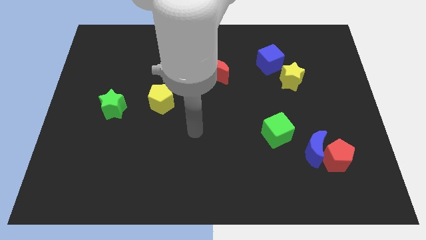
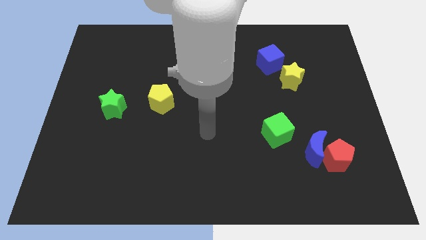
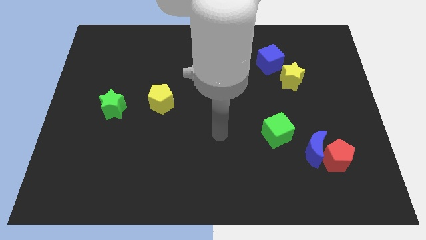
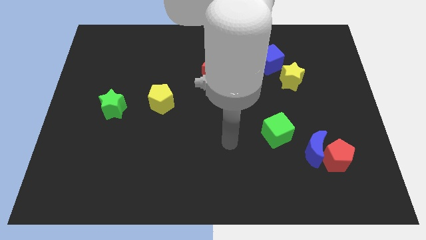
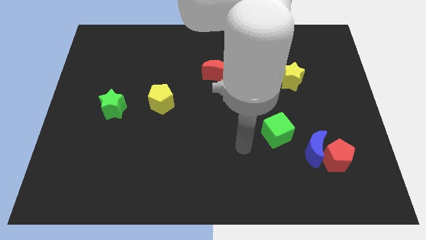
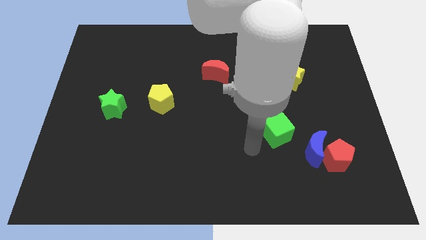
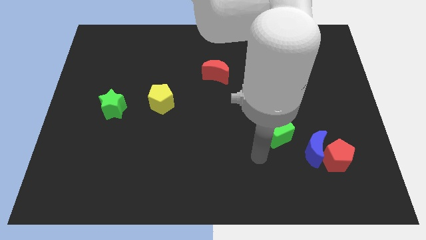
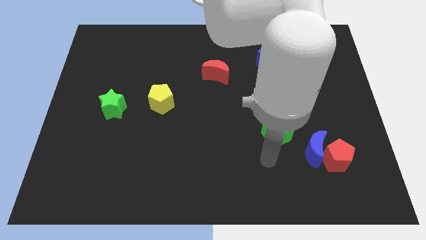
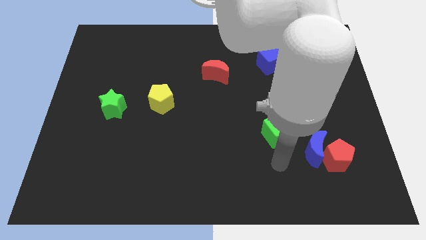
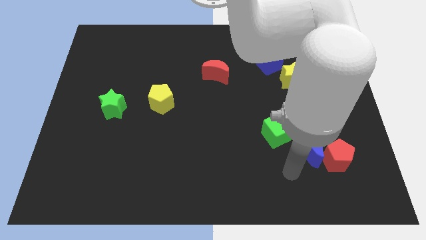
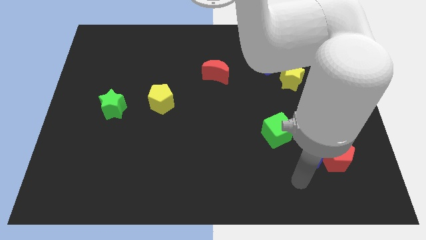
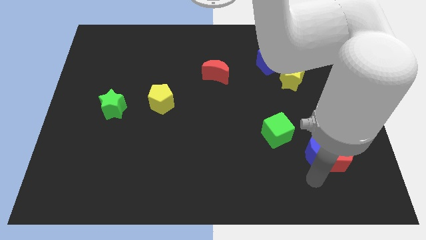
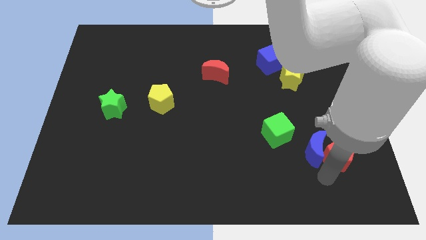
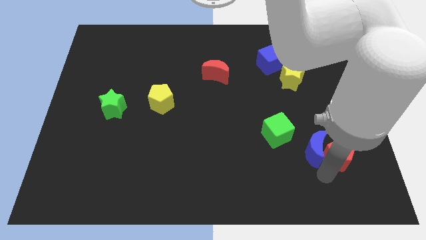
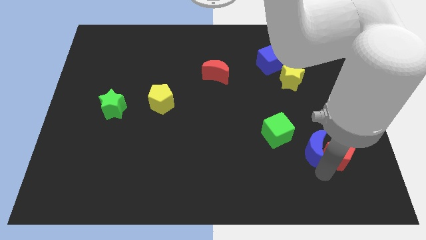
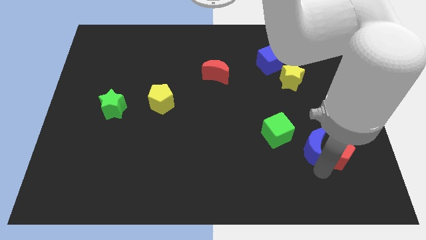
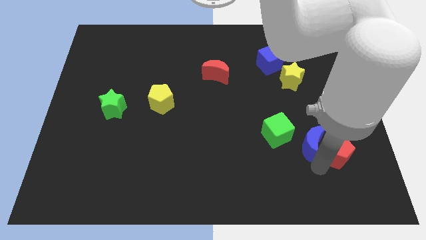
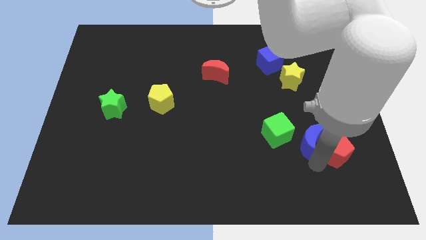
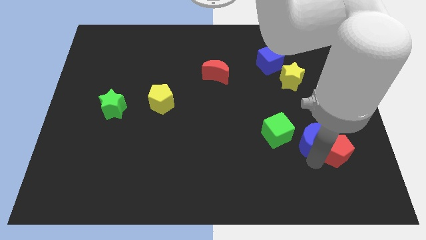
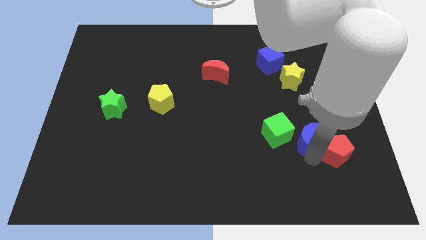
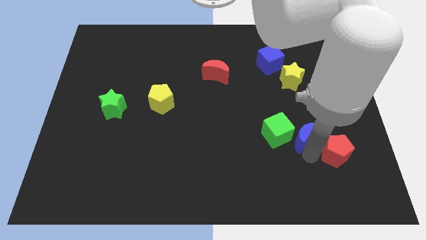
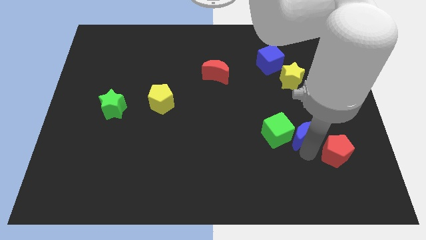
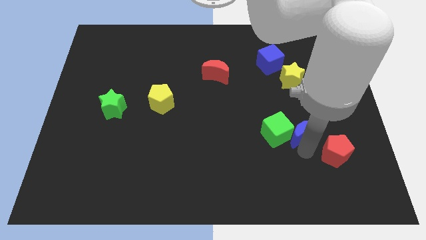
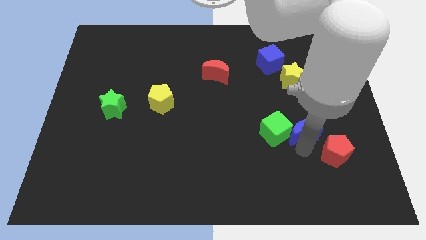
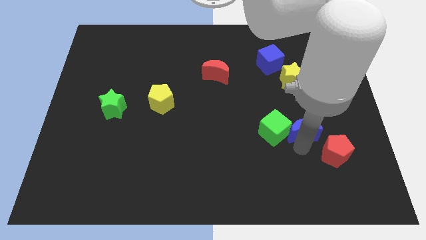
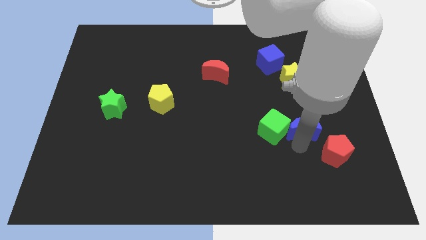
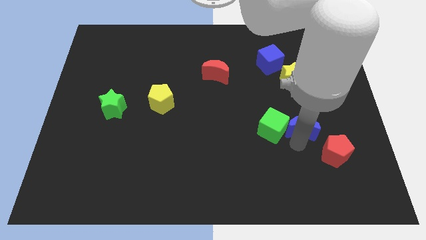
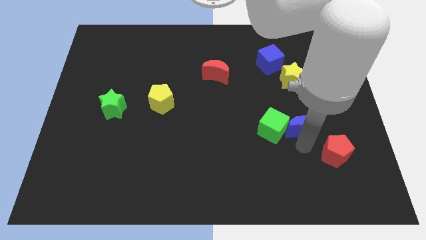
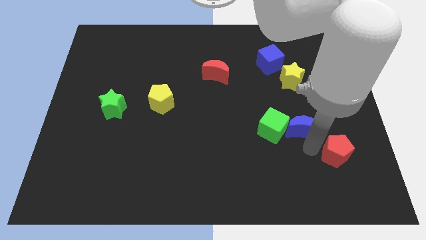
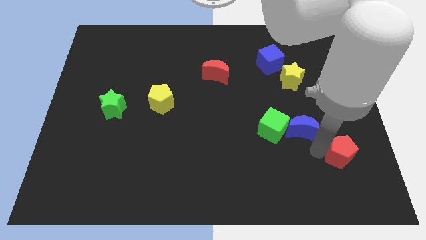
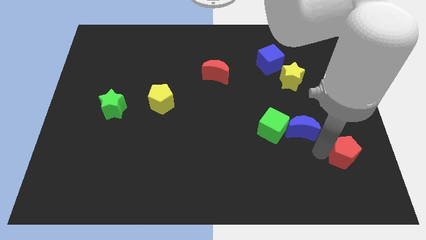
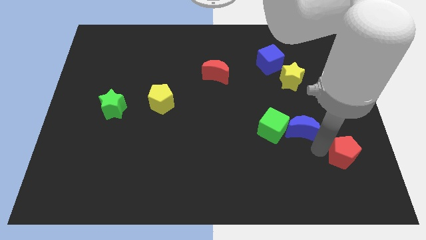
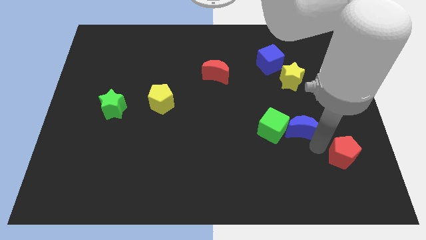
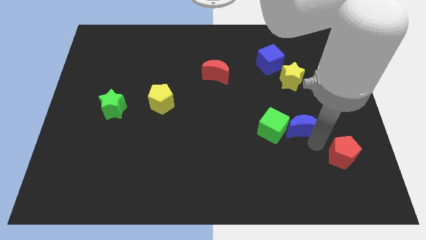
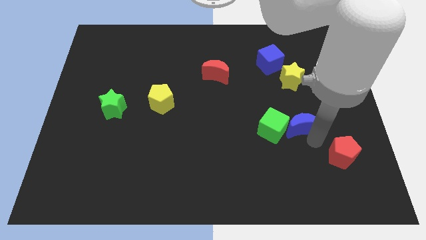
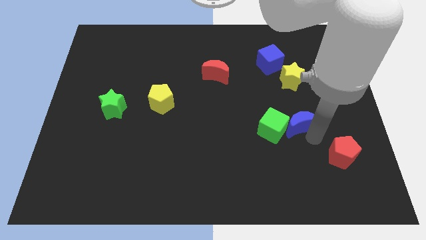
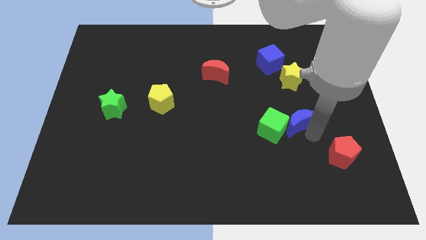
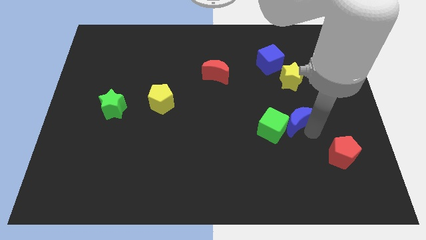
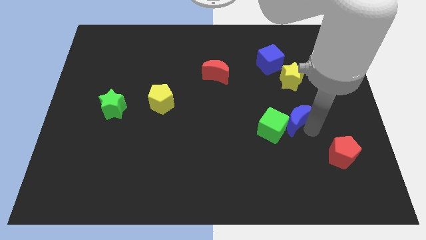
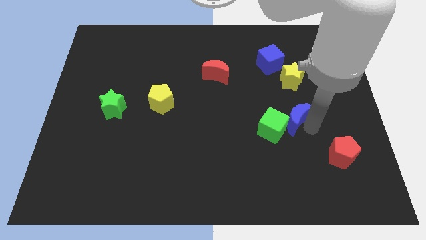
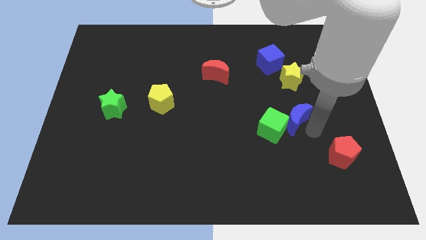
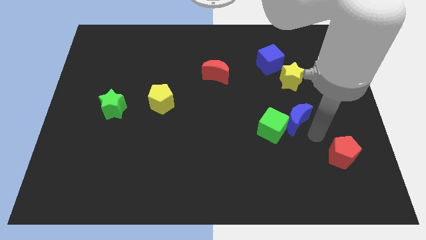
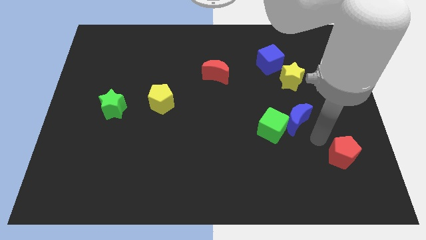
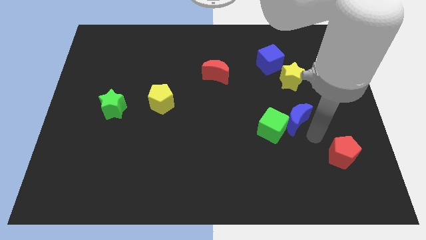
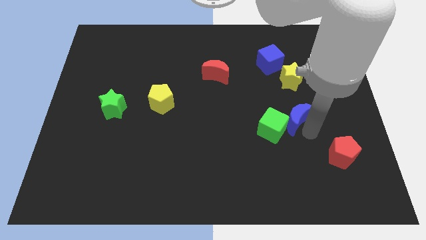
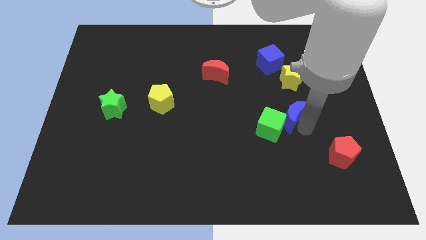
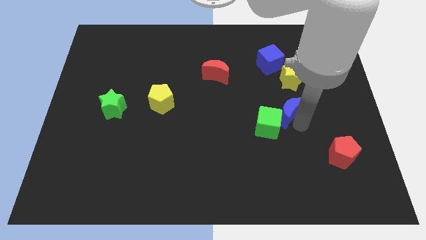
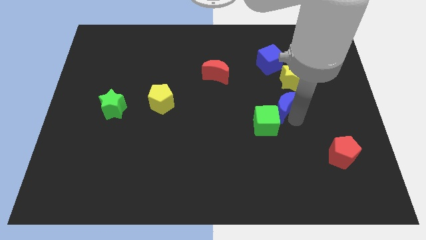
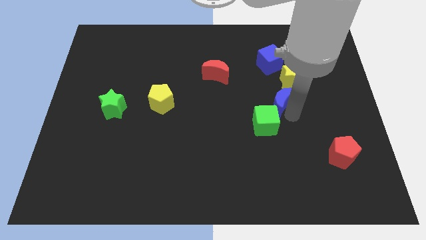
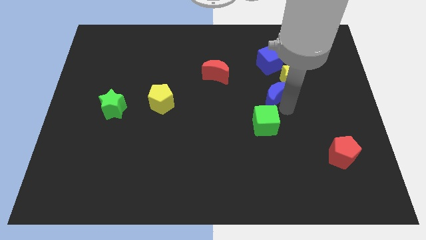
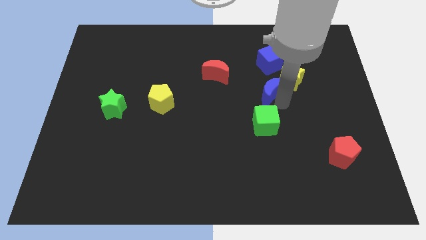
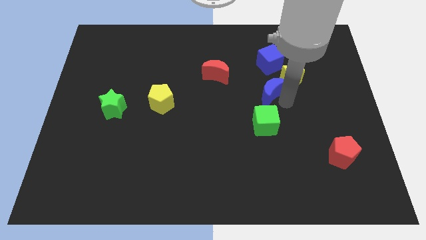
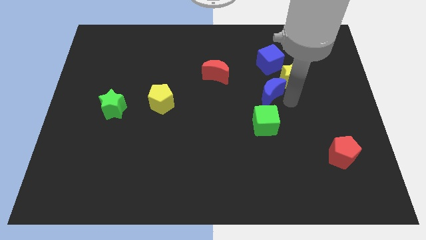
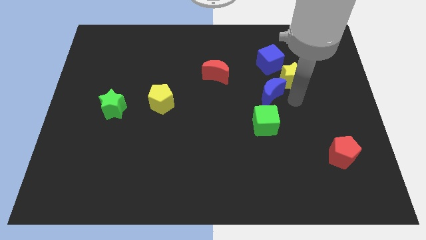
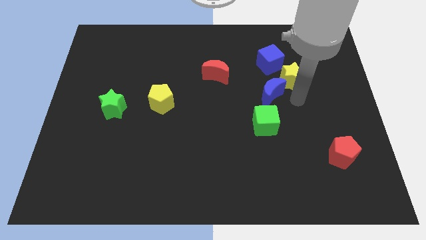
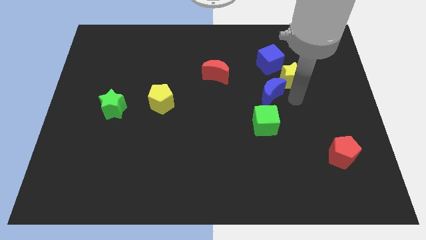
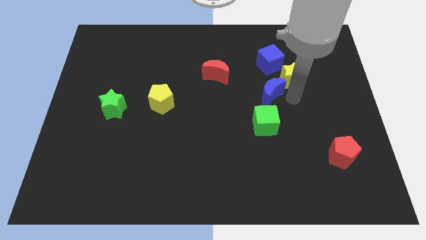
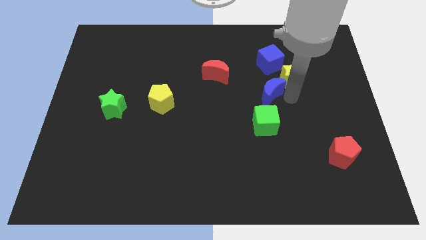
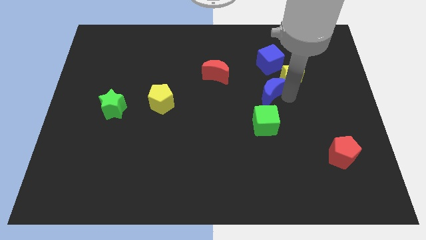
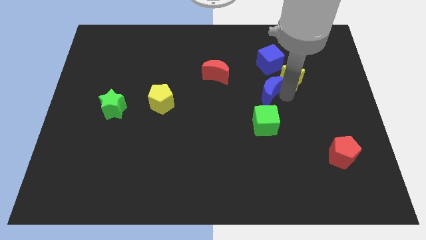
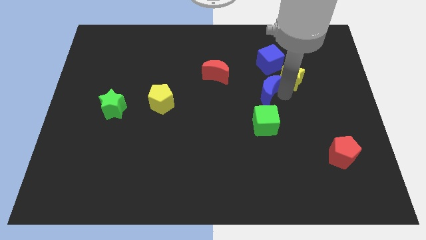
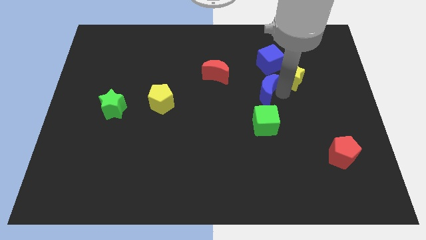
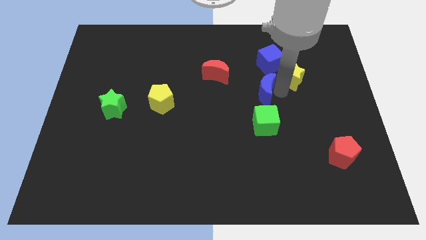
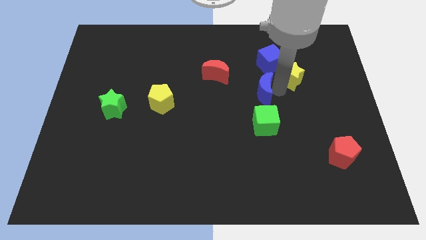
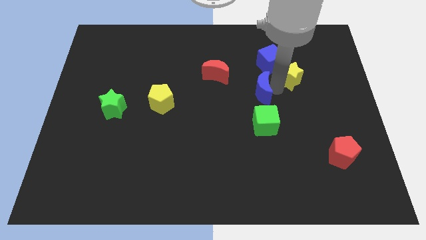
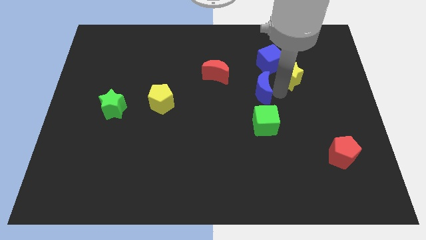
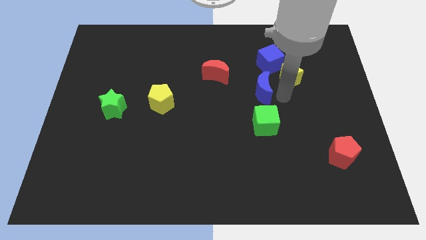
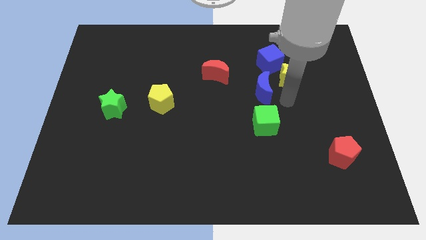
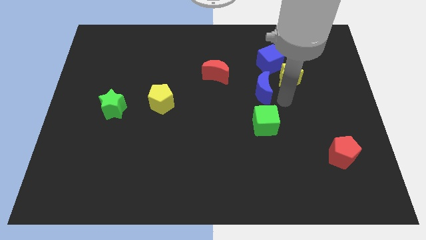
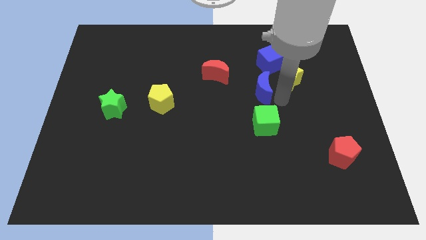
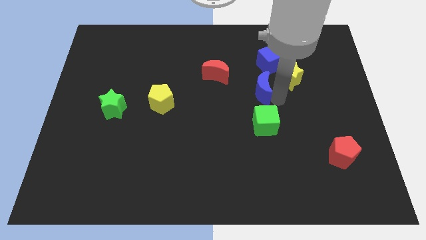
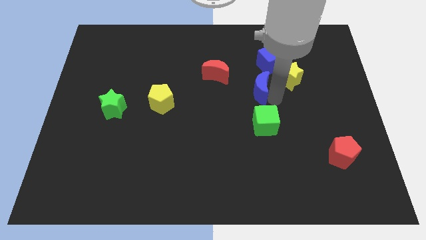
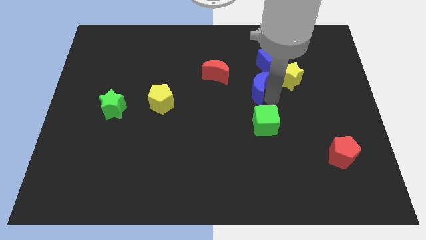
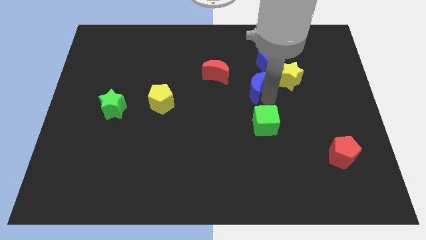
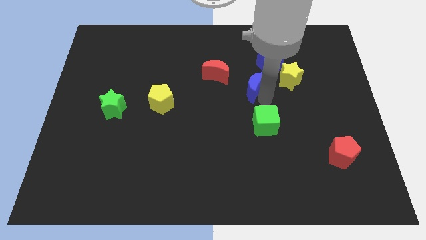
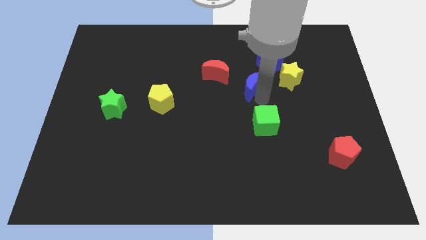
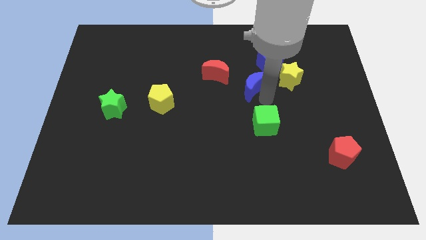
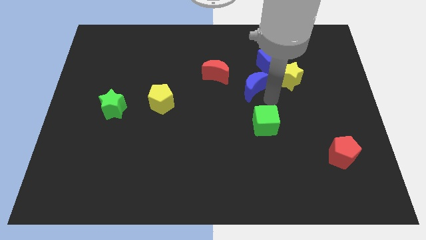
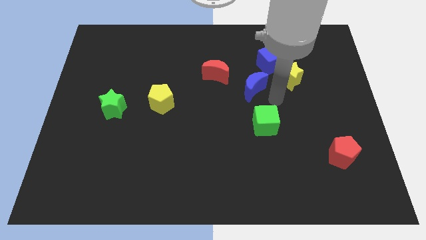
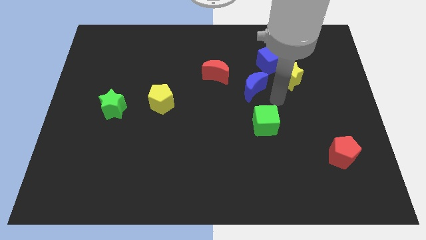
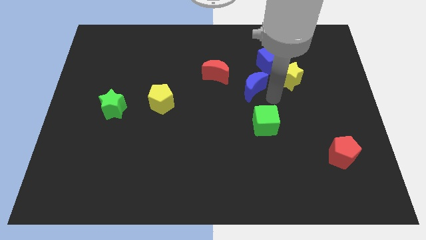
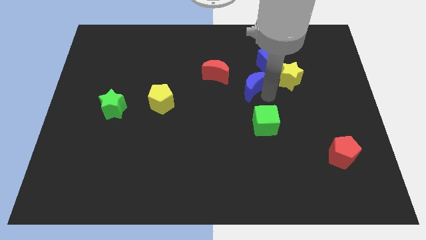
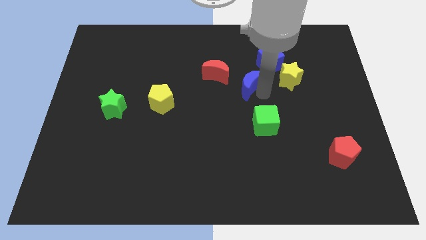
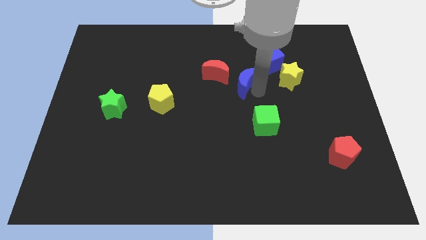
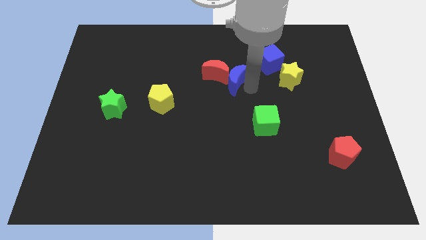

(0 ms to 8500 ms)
put the blue moon to the red moon
